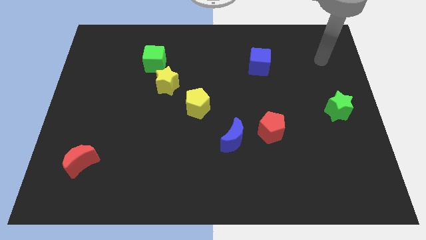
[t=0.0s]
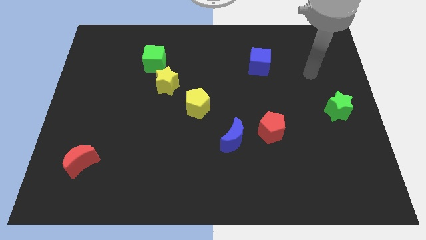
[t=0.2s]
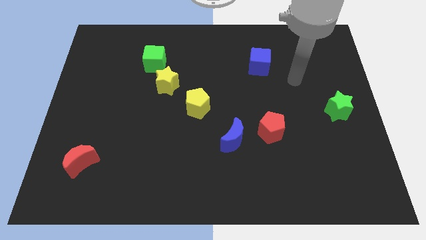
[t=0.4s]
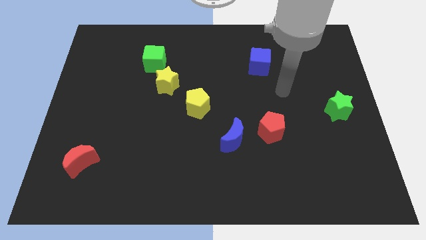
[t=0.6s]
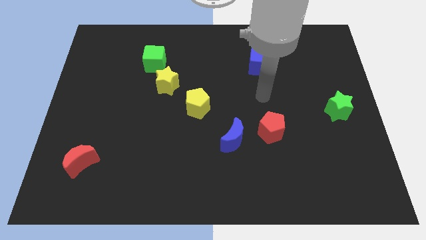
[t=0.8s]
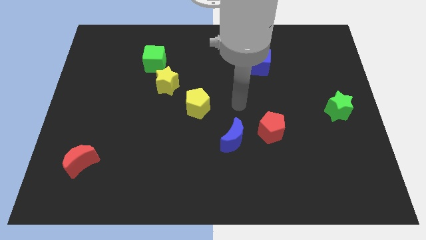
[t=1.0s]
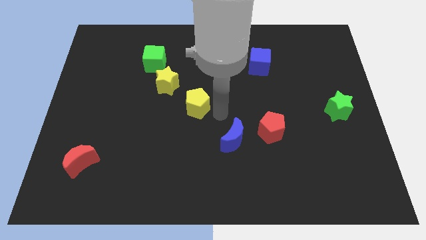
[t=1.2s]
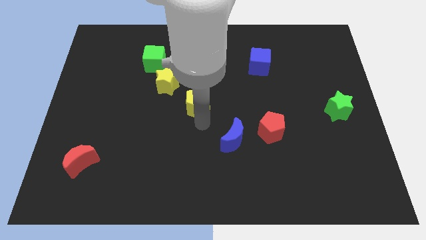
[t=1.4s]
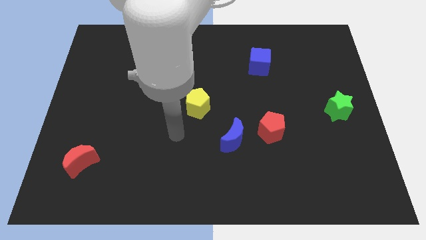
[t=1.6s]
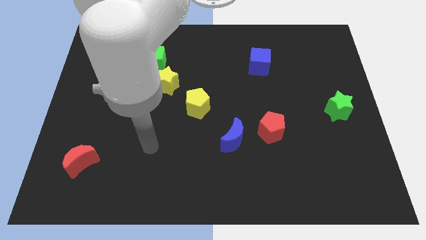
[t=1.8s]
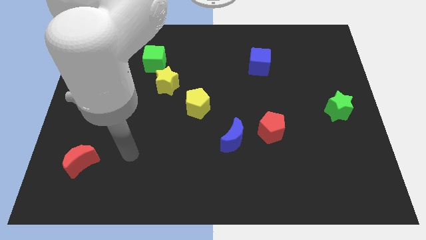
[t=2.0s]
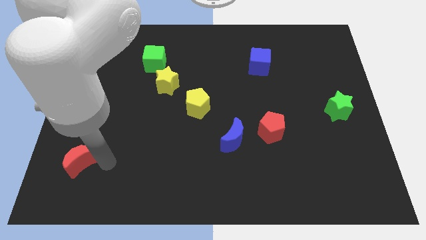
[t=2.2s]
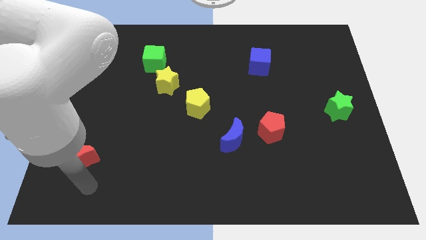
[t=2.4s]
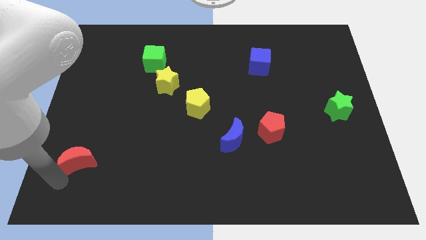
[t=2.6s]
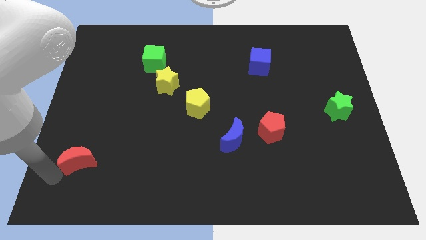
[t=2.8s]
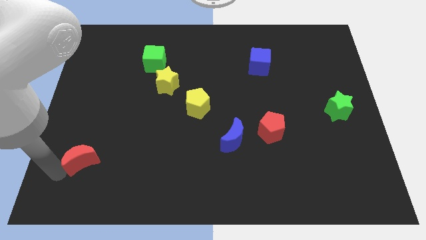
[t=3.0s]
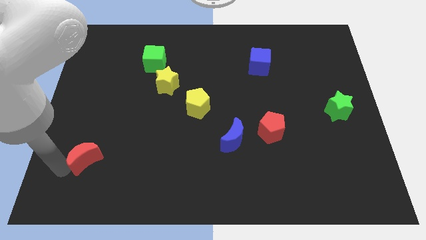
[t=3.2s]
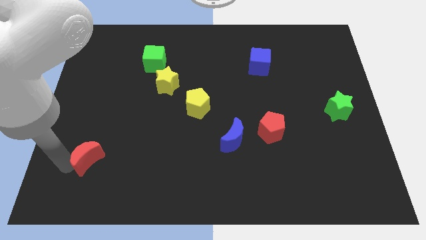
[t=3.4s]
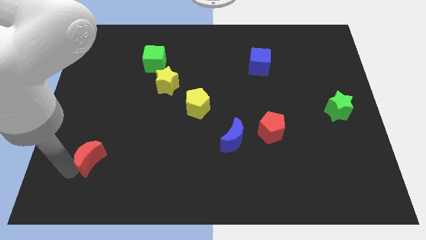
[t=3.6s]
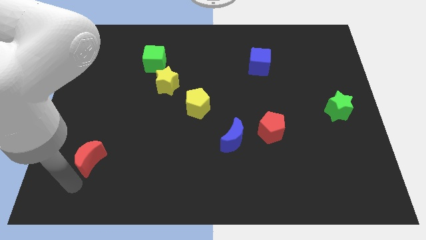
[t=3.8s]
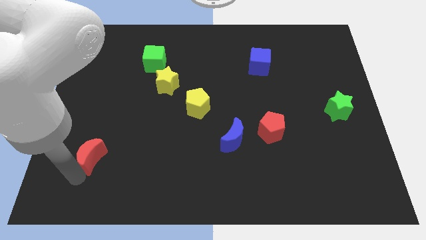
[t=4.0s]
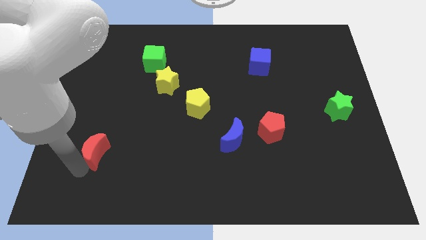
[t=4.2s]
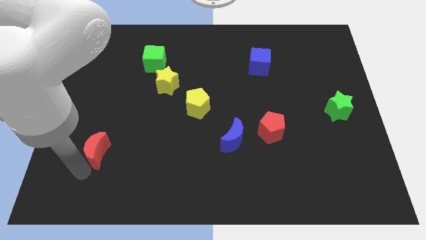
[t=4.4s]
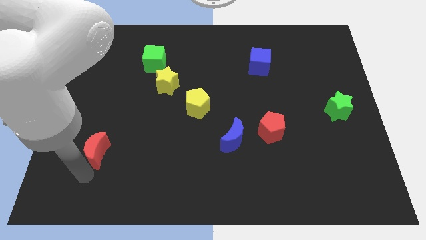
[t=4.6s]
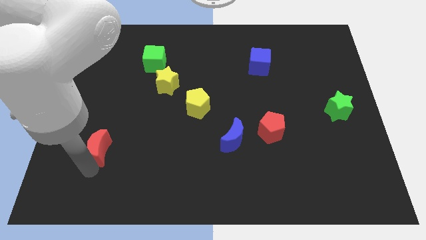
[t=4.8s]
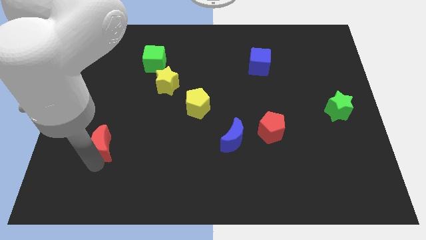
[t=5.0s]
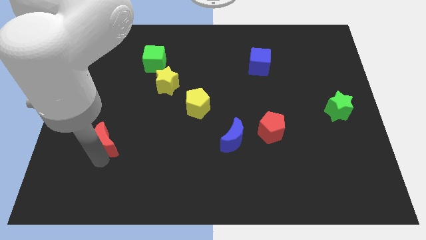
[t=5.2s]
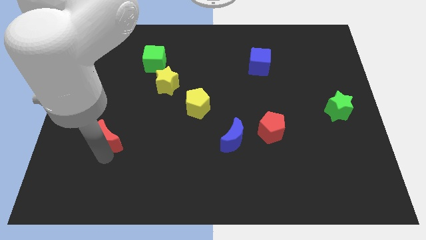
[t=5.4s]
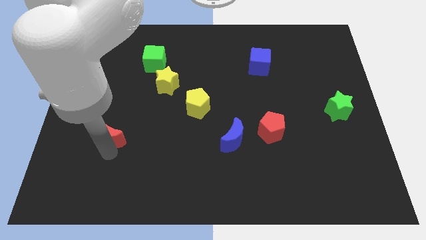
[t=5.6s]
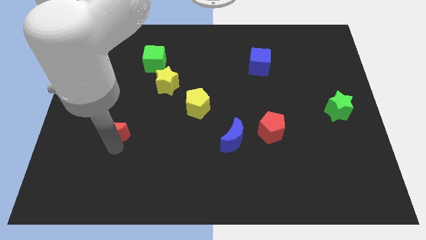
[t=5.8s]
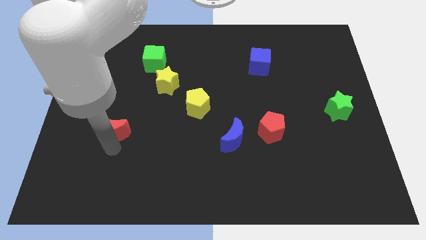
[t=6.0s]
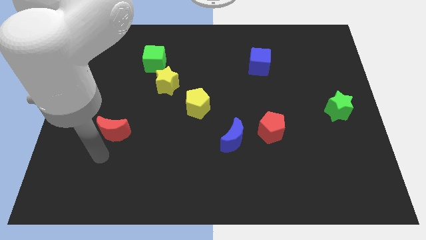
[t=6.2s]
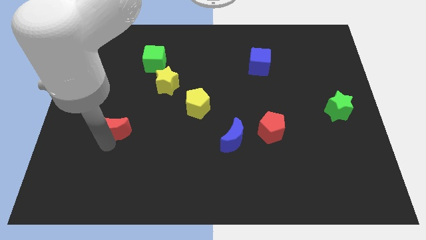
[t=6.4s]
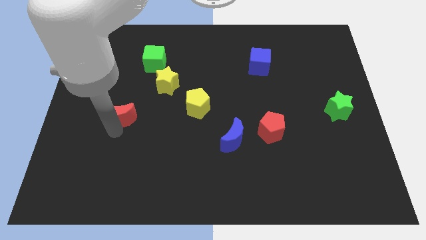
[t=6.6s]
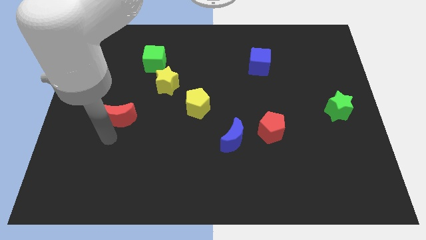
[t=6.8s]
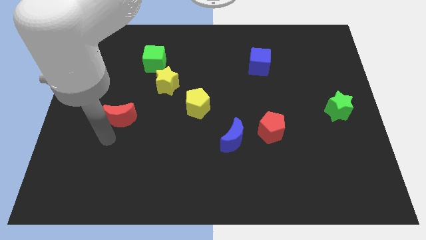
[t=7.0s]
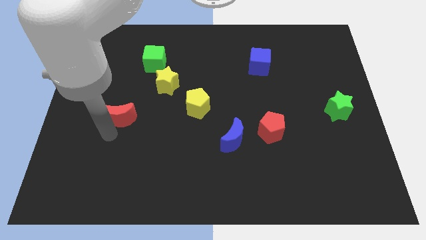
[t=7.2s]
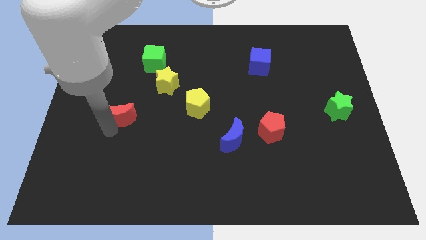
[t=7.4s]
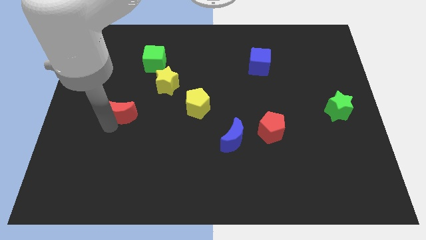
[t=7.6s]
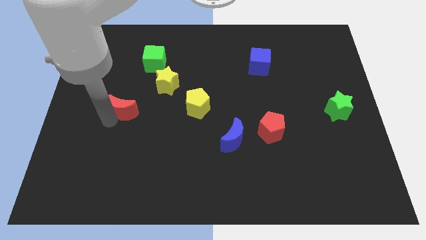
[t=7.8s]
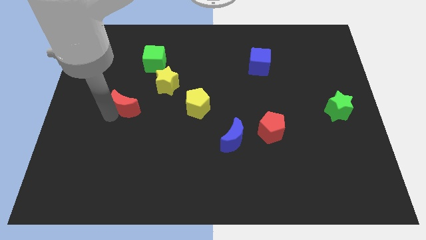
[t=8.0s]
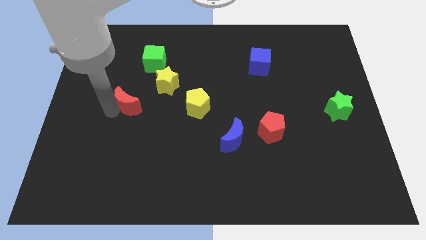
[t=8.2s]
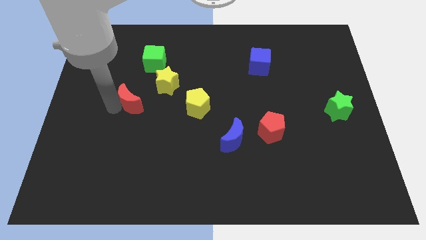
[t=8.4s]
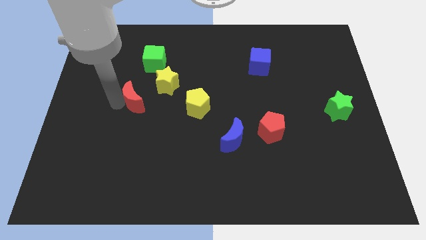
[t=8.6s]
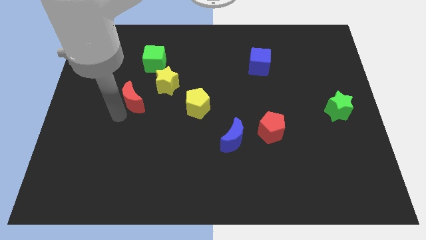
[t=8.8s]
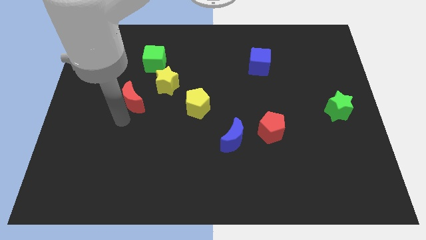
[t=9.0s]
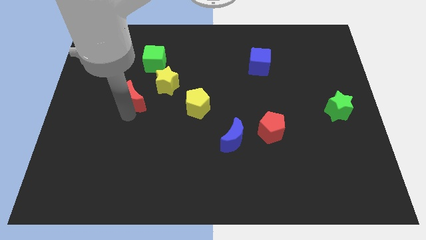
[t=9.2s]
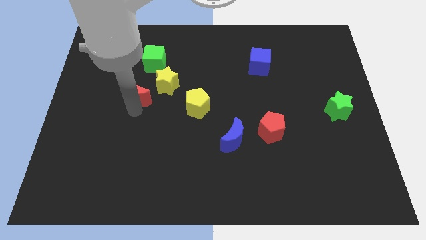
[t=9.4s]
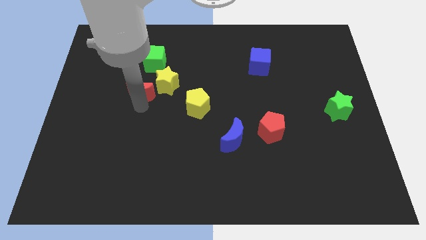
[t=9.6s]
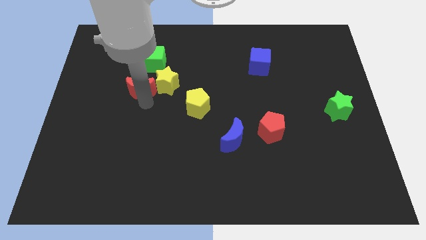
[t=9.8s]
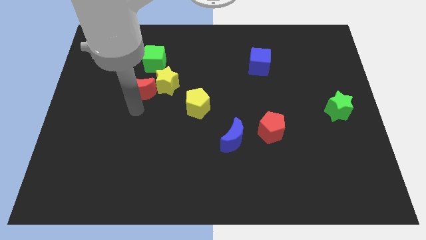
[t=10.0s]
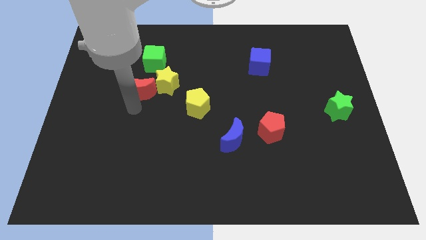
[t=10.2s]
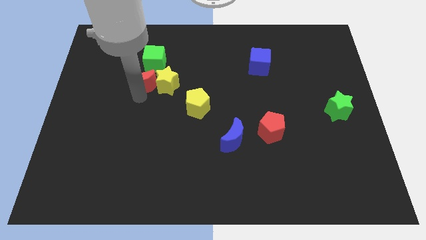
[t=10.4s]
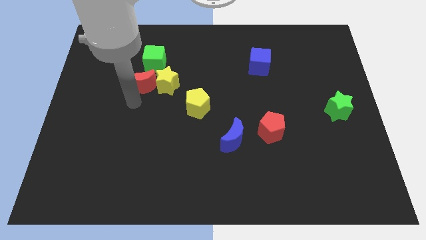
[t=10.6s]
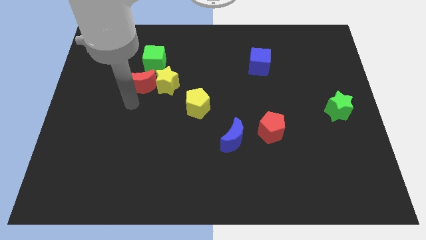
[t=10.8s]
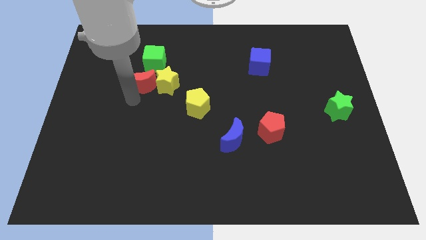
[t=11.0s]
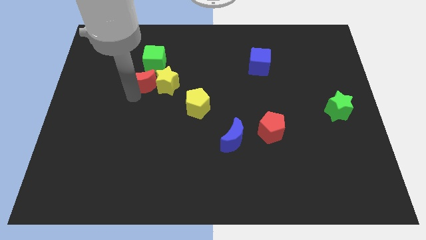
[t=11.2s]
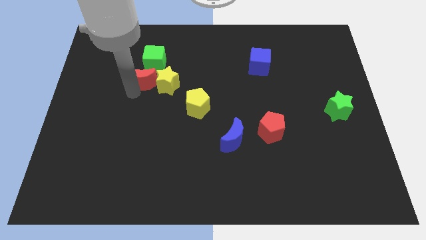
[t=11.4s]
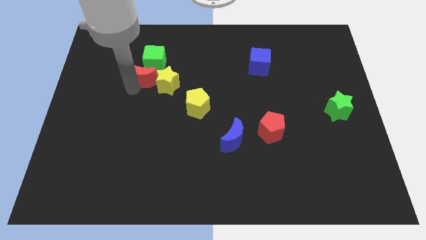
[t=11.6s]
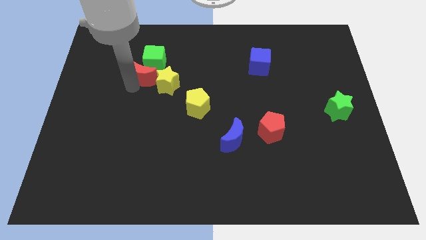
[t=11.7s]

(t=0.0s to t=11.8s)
slide the red moon next to the green cube

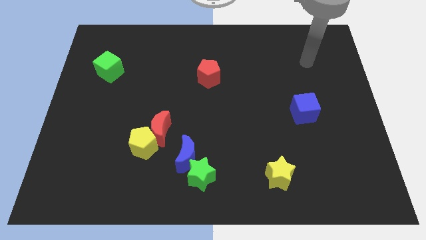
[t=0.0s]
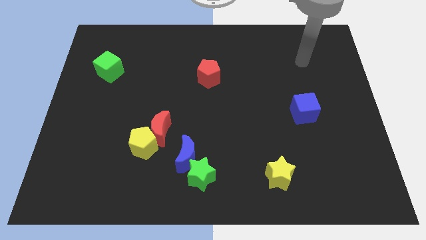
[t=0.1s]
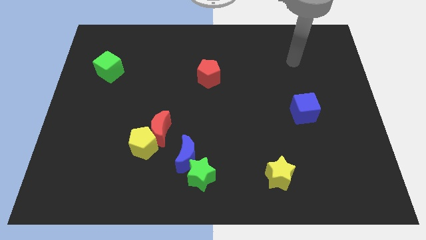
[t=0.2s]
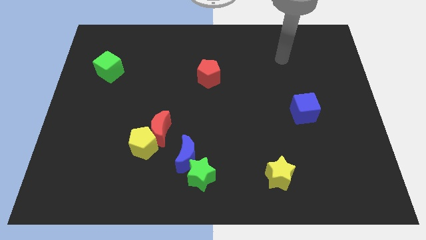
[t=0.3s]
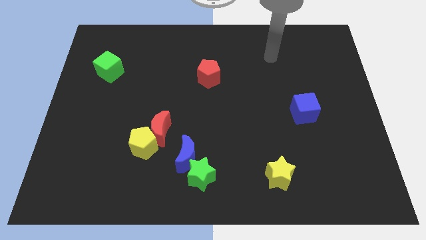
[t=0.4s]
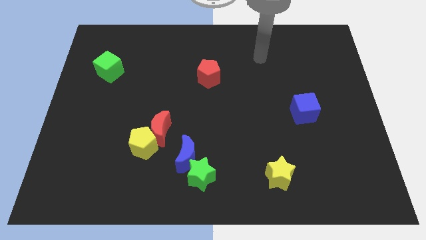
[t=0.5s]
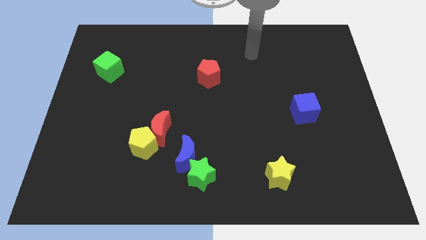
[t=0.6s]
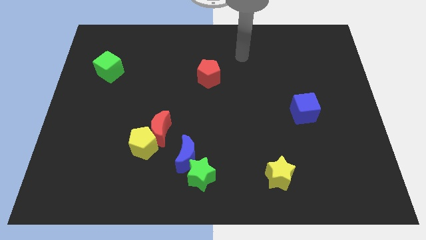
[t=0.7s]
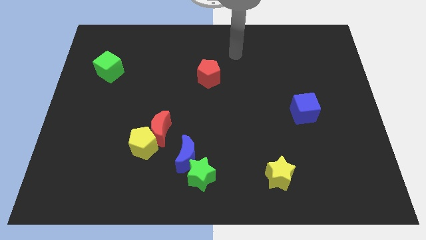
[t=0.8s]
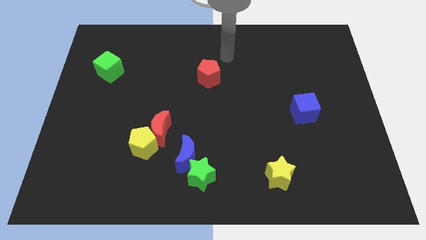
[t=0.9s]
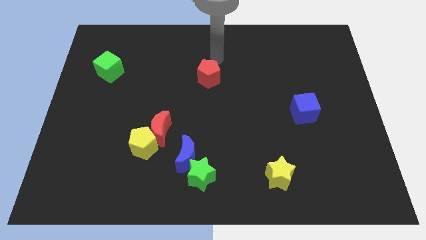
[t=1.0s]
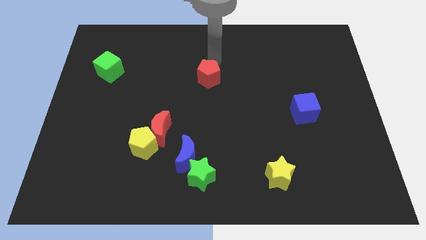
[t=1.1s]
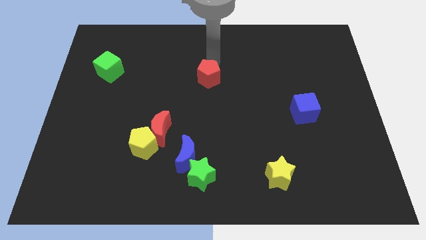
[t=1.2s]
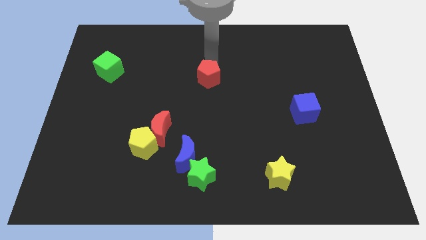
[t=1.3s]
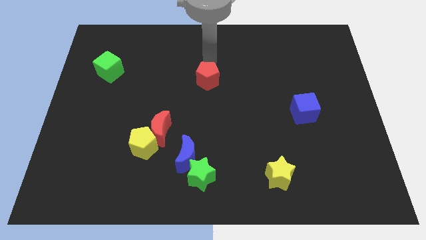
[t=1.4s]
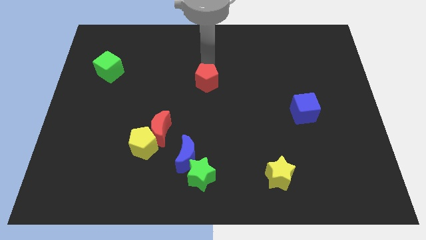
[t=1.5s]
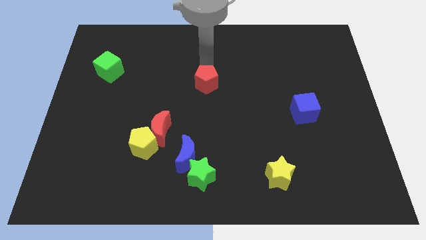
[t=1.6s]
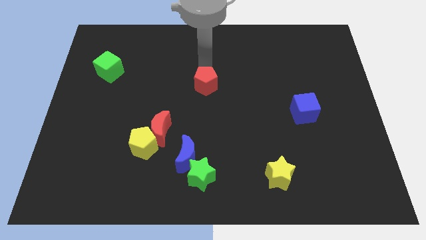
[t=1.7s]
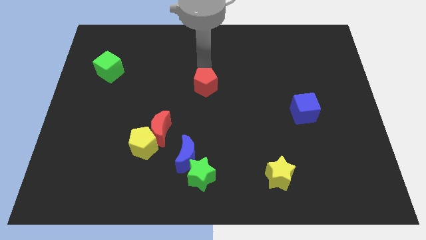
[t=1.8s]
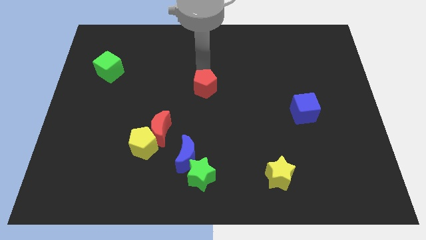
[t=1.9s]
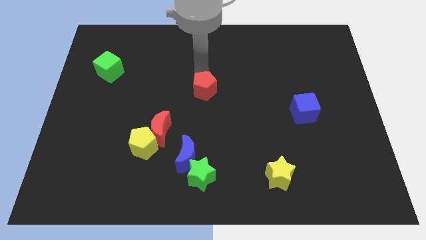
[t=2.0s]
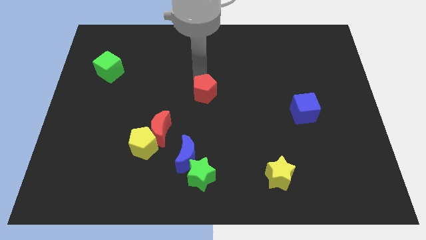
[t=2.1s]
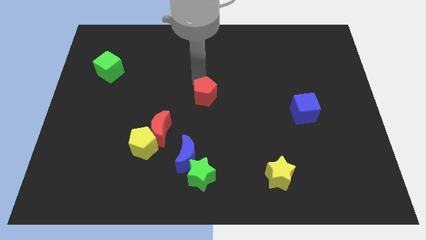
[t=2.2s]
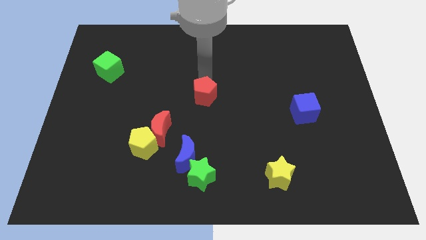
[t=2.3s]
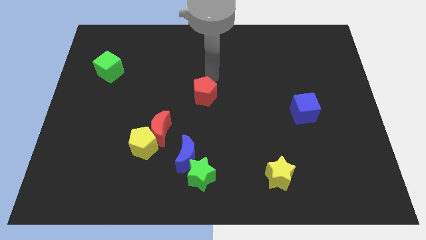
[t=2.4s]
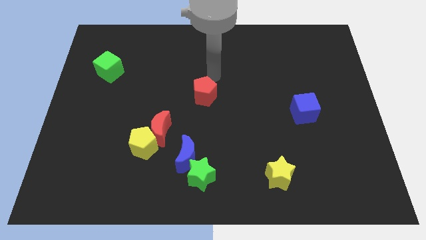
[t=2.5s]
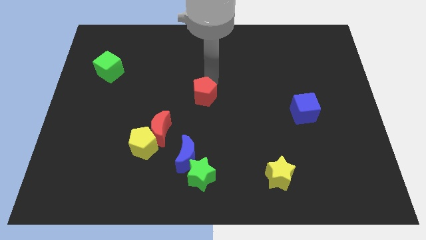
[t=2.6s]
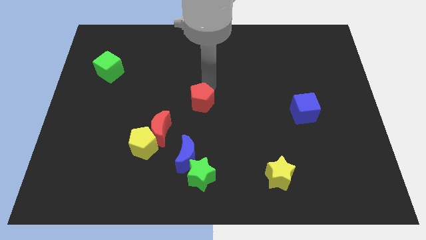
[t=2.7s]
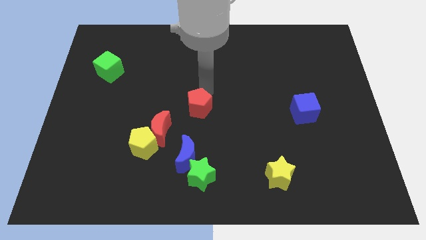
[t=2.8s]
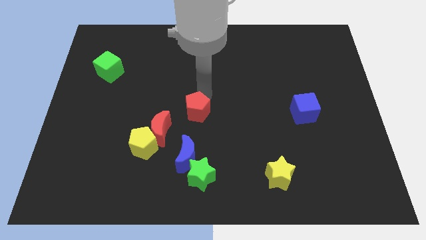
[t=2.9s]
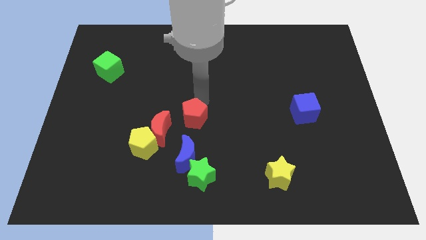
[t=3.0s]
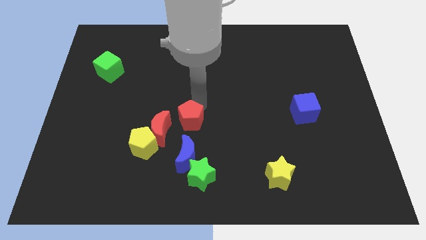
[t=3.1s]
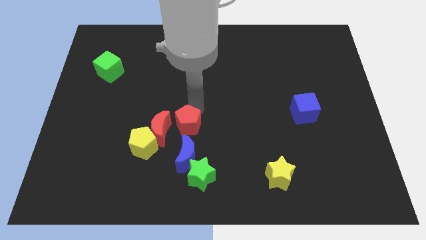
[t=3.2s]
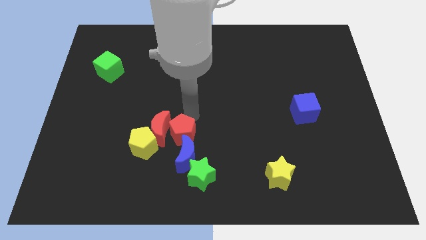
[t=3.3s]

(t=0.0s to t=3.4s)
slide the red pentagon towards the blue moon
